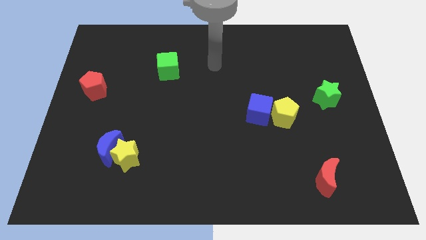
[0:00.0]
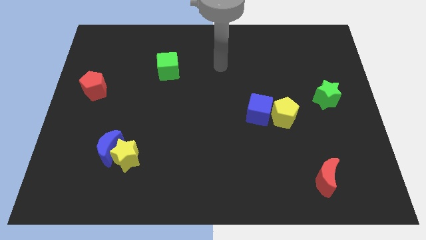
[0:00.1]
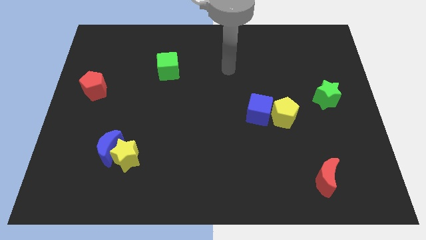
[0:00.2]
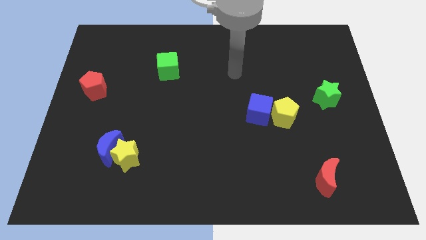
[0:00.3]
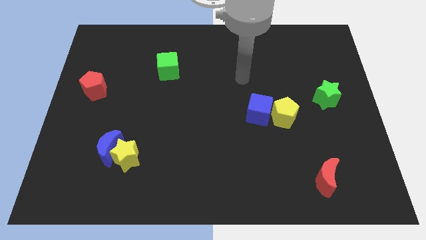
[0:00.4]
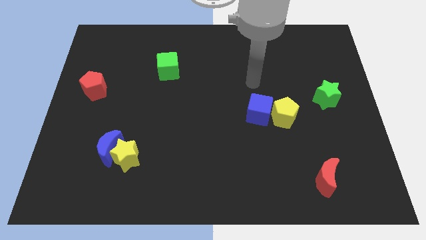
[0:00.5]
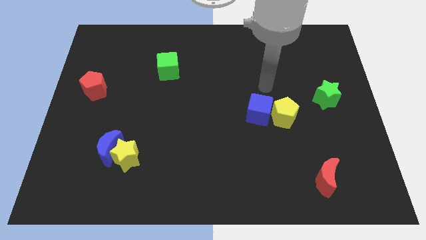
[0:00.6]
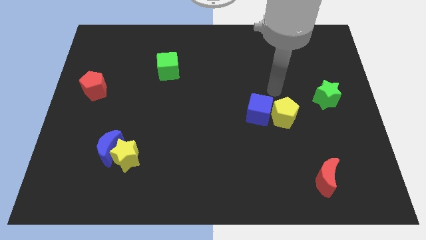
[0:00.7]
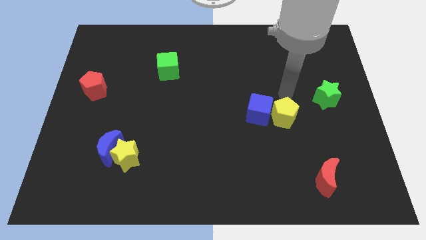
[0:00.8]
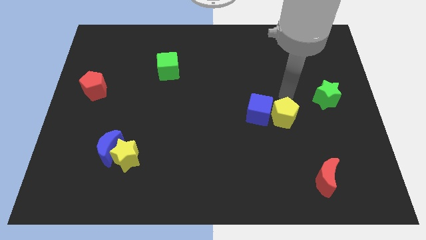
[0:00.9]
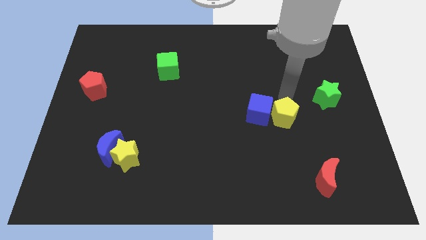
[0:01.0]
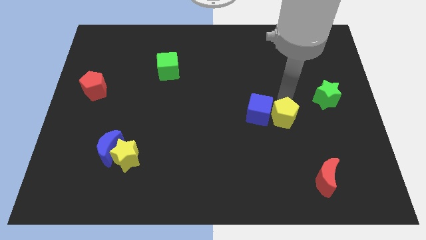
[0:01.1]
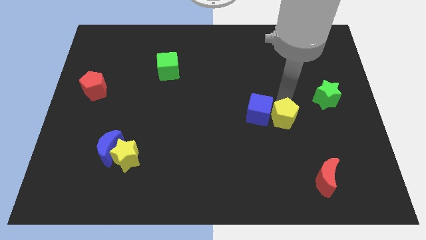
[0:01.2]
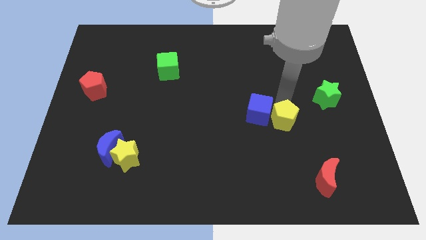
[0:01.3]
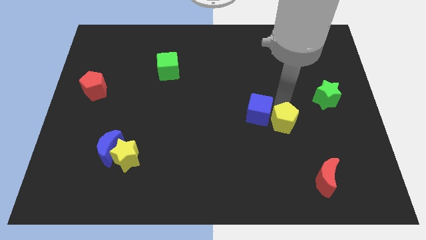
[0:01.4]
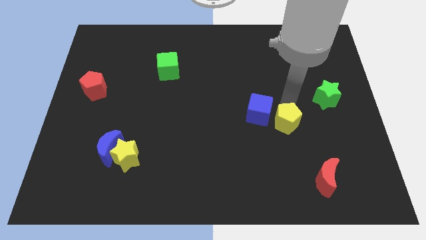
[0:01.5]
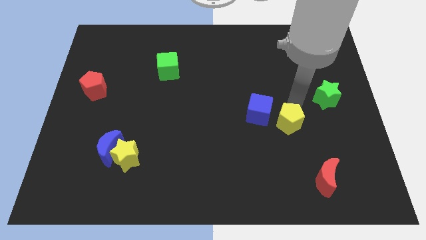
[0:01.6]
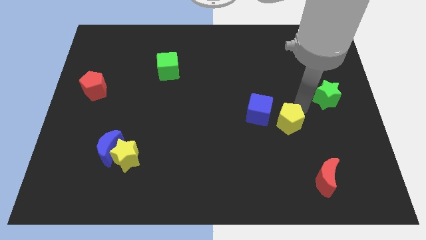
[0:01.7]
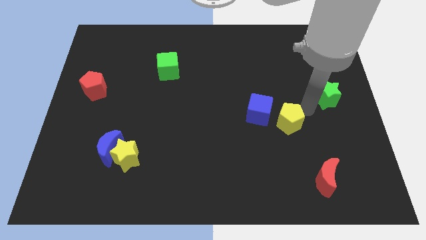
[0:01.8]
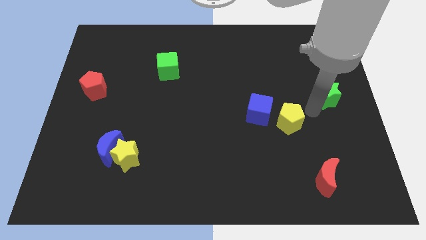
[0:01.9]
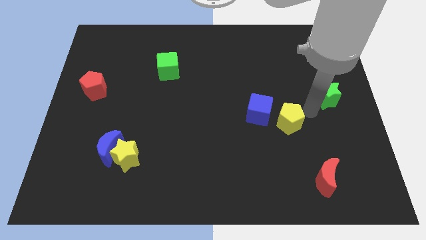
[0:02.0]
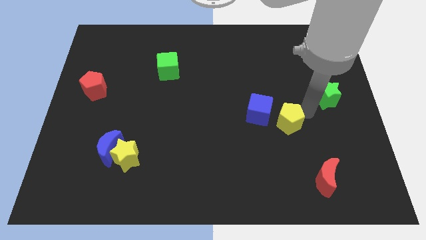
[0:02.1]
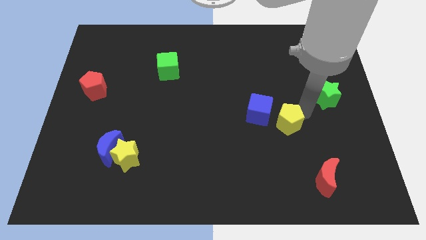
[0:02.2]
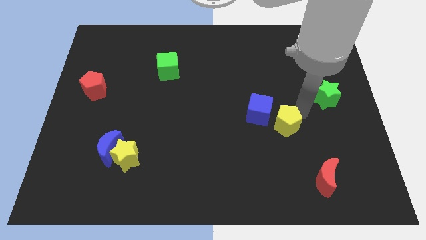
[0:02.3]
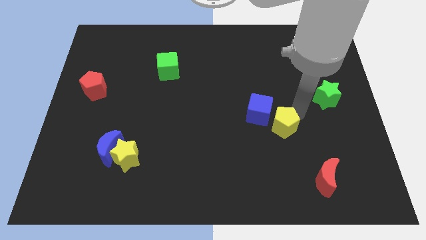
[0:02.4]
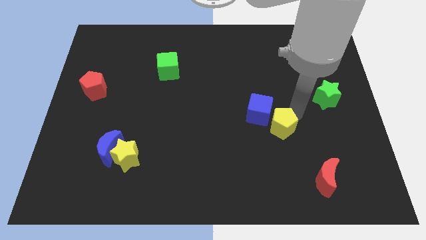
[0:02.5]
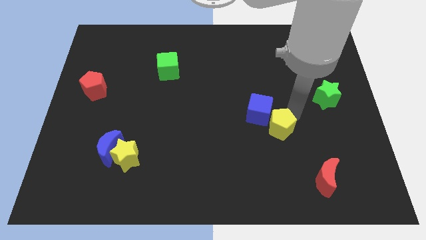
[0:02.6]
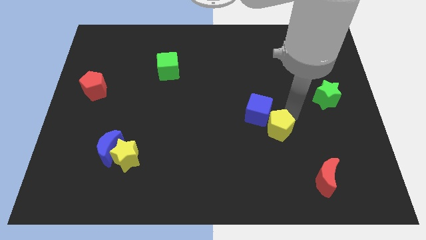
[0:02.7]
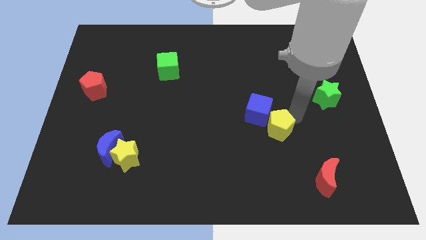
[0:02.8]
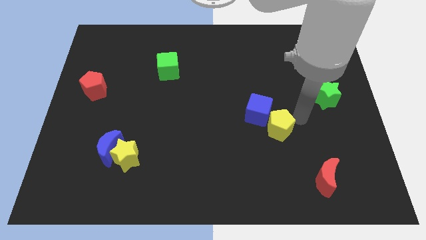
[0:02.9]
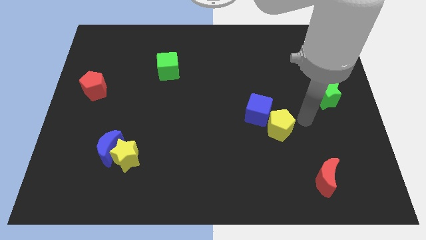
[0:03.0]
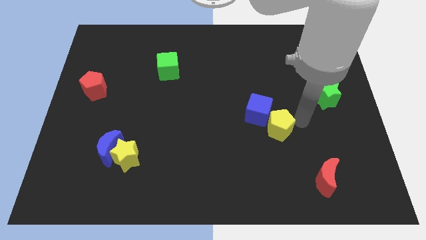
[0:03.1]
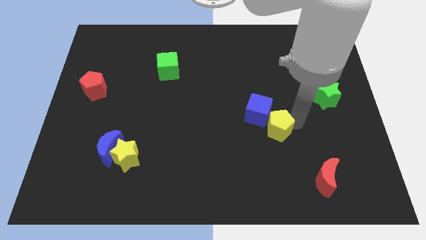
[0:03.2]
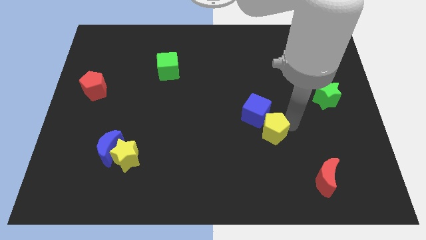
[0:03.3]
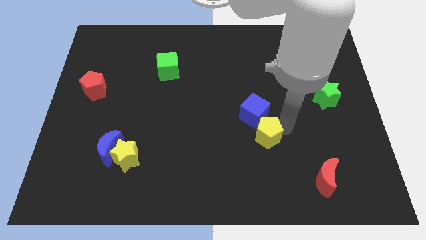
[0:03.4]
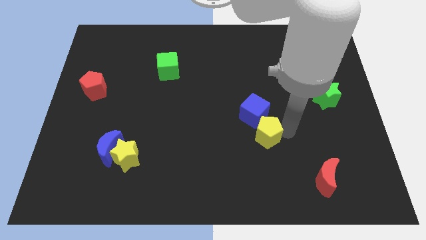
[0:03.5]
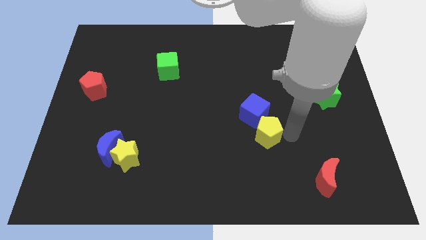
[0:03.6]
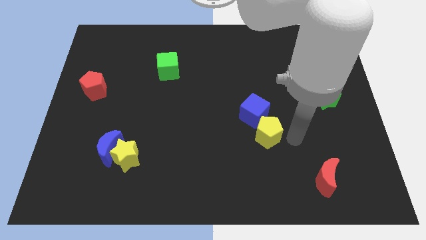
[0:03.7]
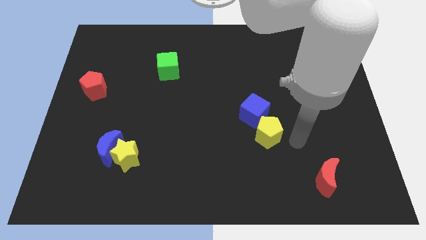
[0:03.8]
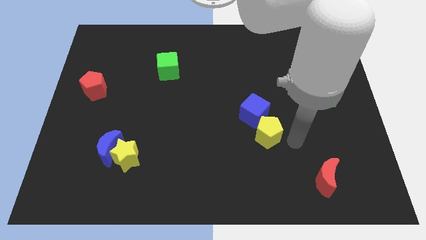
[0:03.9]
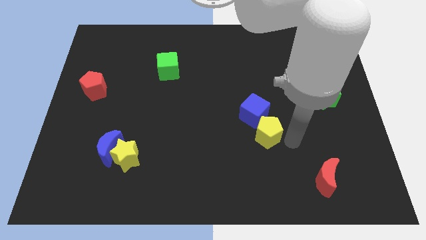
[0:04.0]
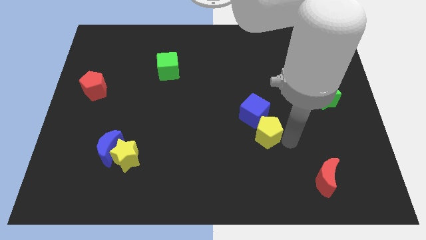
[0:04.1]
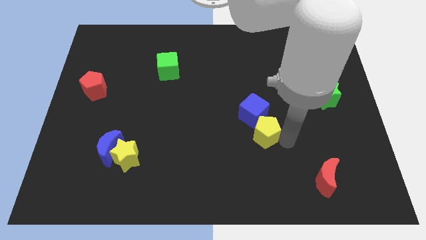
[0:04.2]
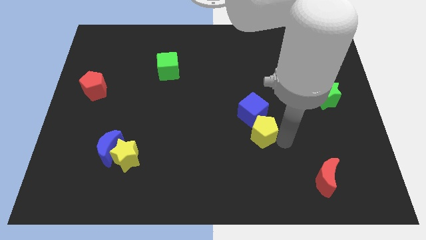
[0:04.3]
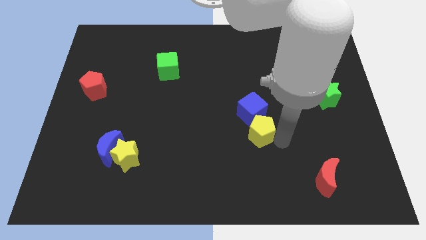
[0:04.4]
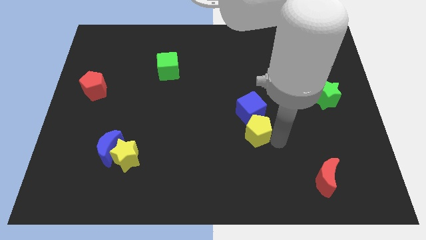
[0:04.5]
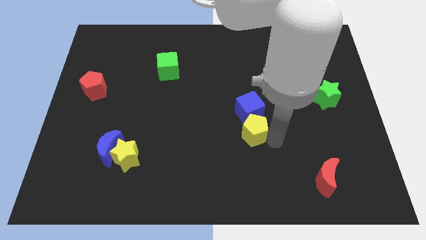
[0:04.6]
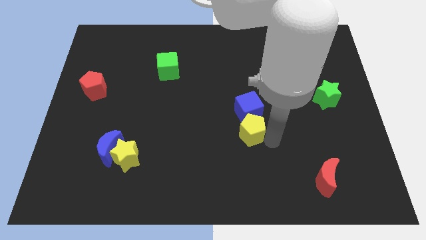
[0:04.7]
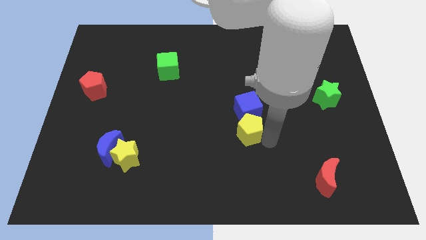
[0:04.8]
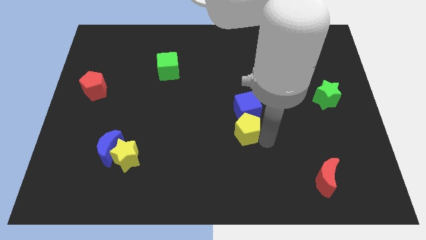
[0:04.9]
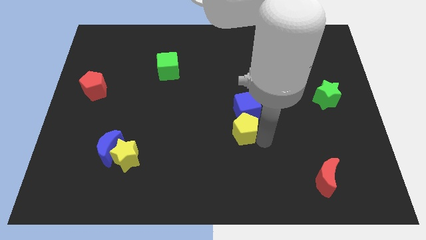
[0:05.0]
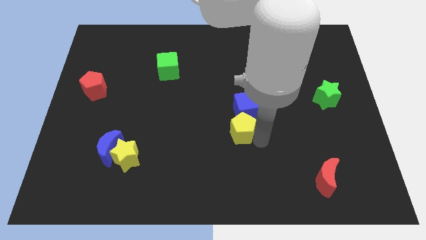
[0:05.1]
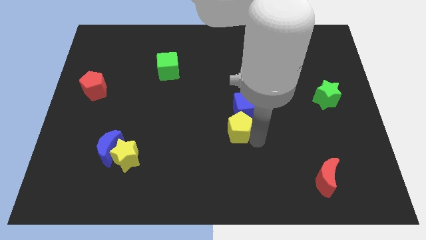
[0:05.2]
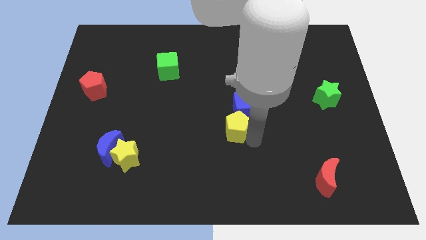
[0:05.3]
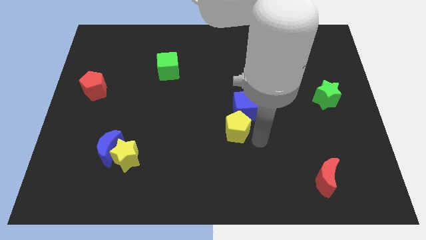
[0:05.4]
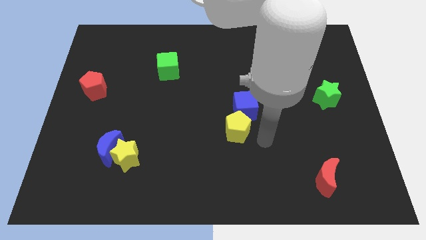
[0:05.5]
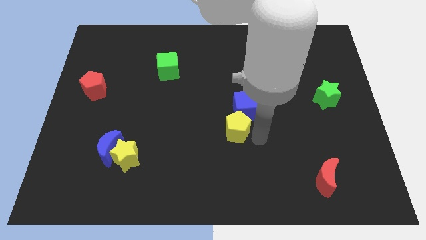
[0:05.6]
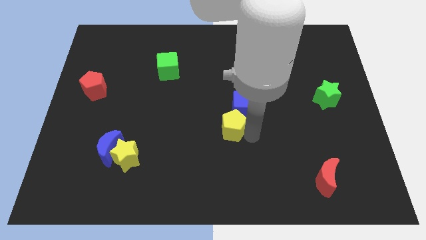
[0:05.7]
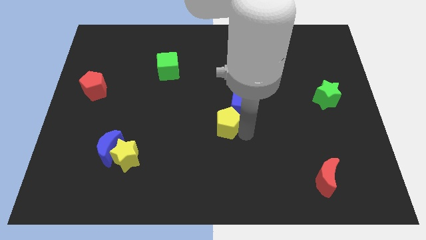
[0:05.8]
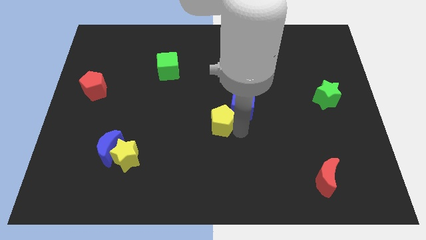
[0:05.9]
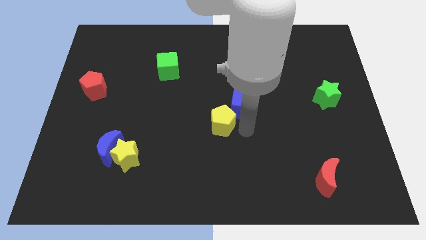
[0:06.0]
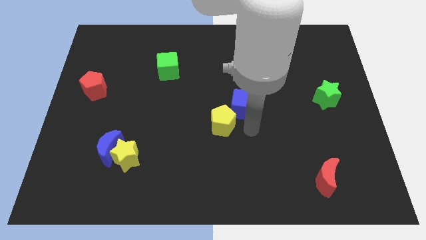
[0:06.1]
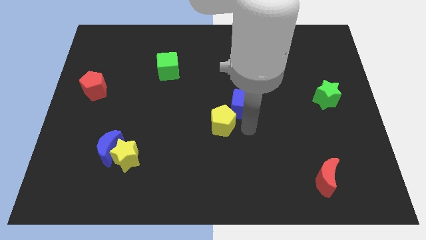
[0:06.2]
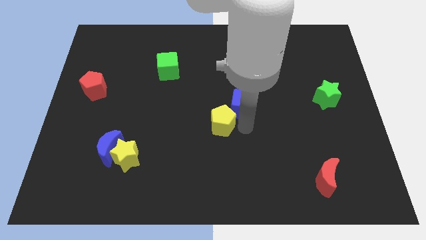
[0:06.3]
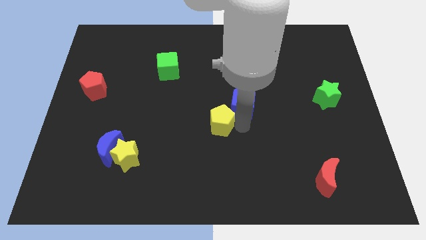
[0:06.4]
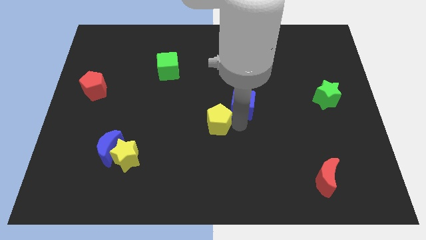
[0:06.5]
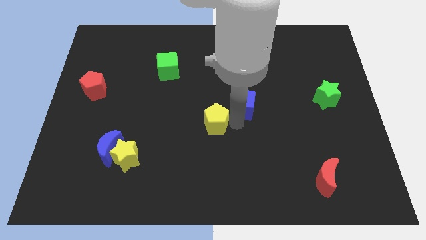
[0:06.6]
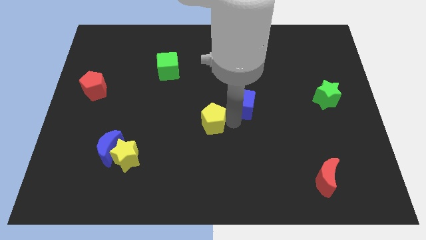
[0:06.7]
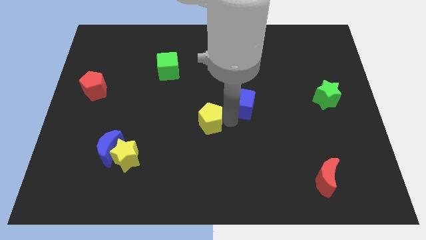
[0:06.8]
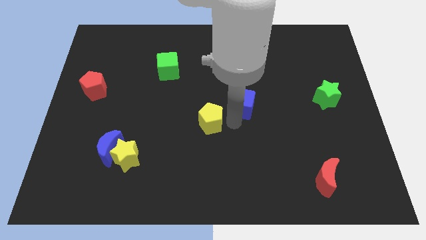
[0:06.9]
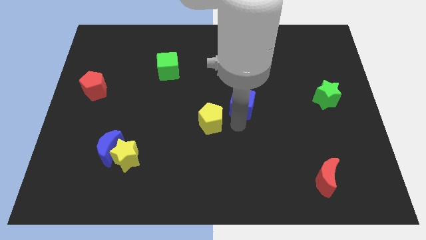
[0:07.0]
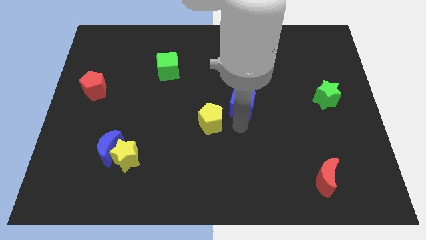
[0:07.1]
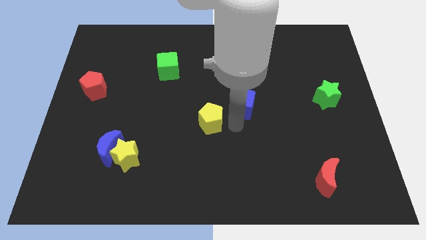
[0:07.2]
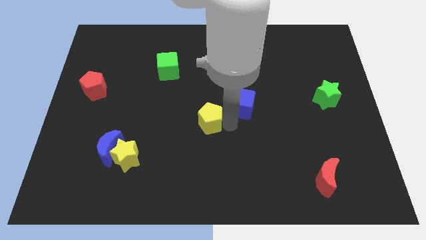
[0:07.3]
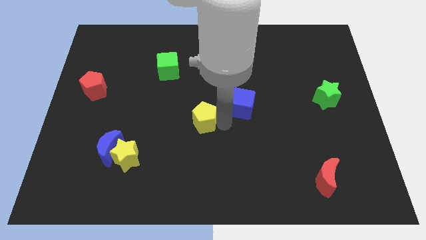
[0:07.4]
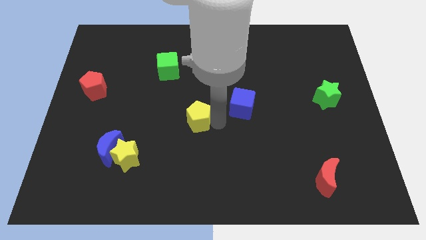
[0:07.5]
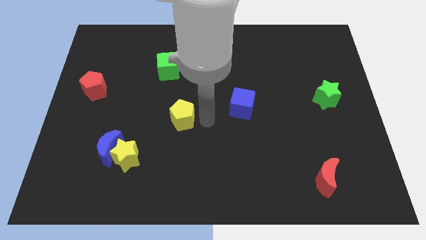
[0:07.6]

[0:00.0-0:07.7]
move the yellow pentagon left
